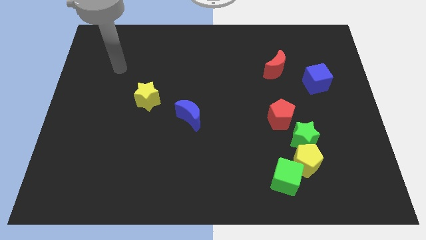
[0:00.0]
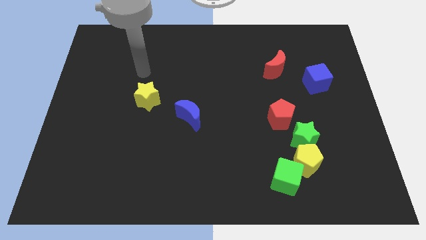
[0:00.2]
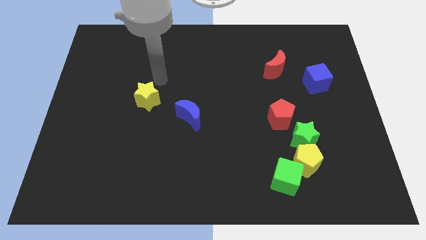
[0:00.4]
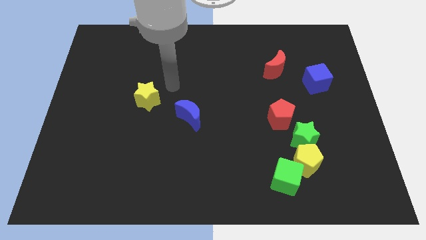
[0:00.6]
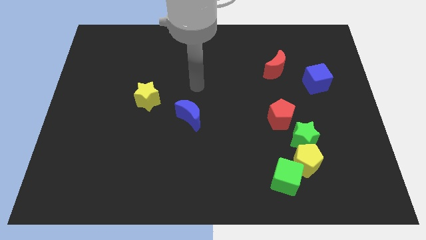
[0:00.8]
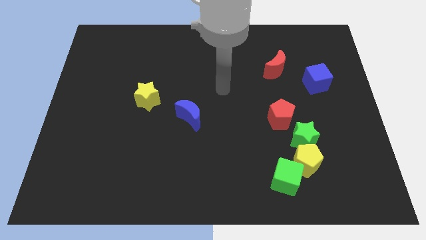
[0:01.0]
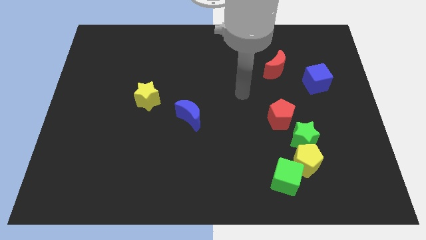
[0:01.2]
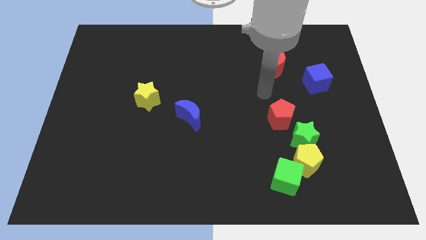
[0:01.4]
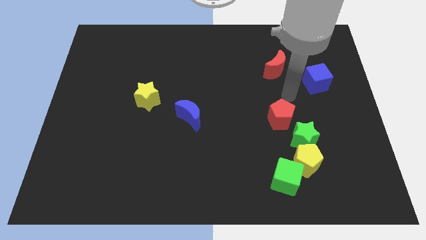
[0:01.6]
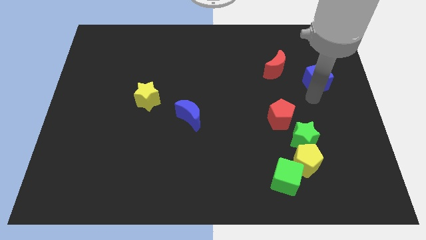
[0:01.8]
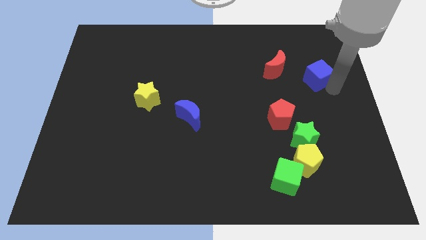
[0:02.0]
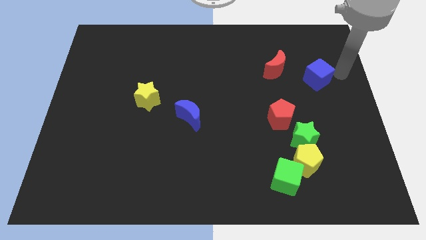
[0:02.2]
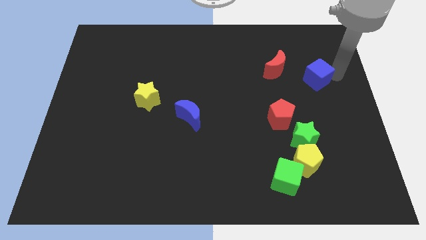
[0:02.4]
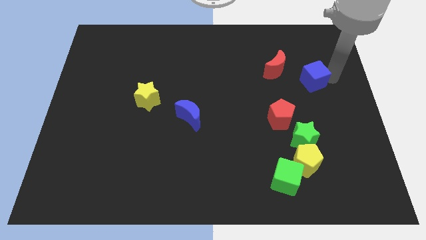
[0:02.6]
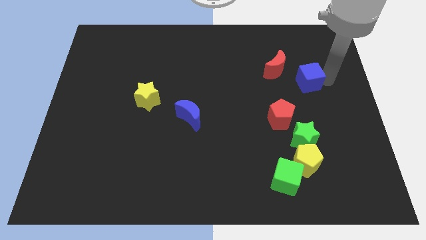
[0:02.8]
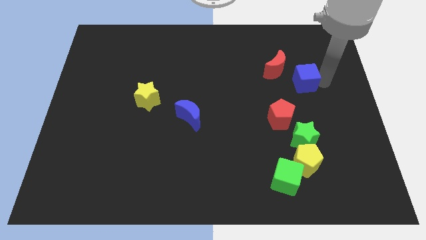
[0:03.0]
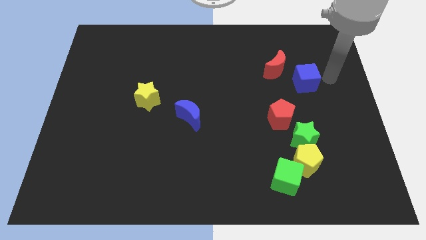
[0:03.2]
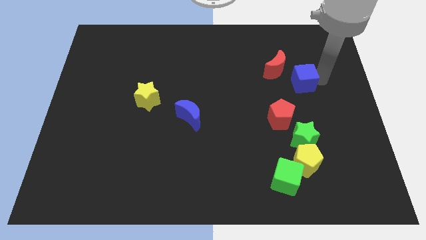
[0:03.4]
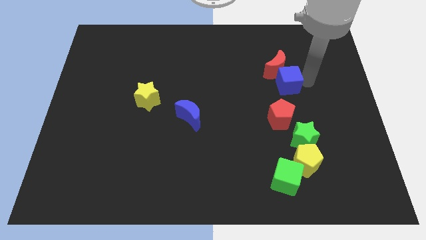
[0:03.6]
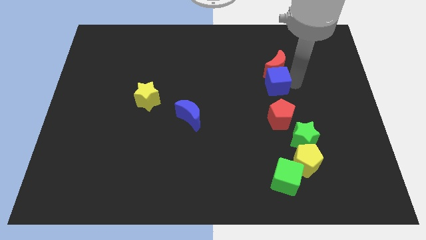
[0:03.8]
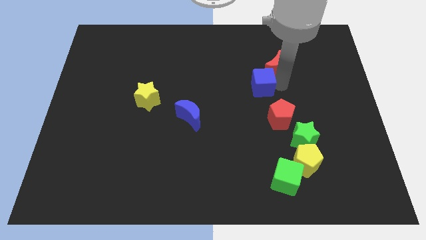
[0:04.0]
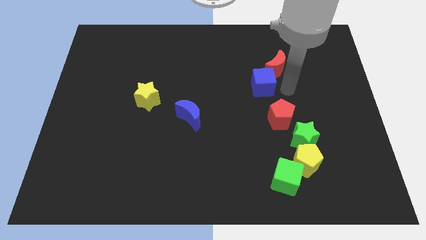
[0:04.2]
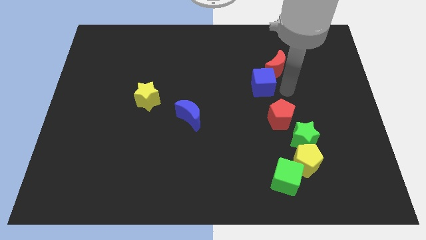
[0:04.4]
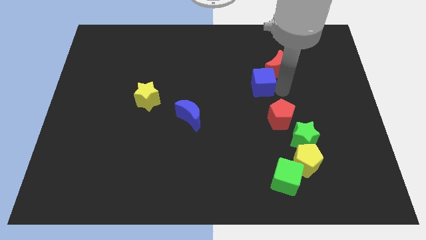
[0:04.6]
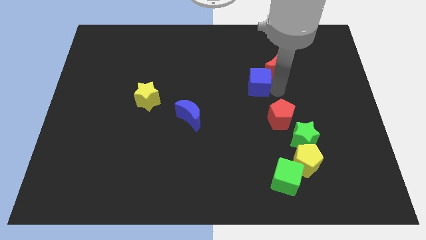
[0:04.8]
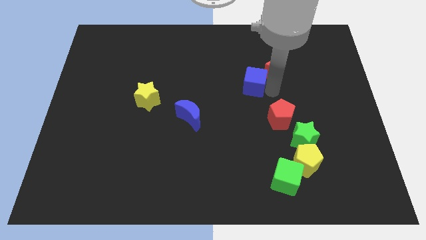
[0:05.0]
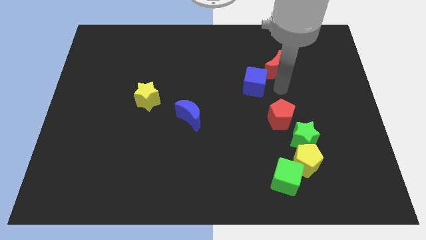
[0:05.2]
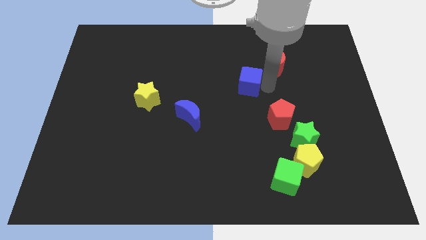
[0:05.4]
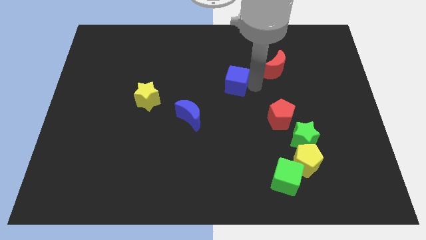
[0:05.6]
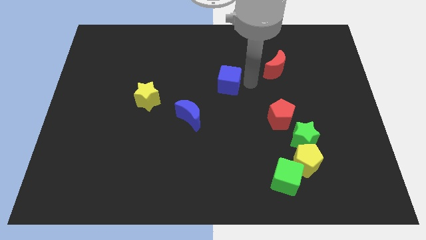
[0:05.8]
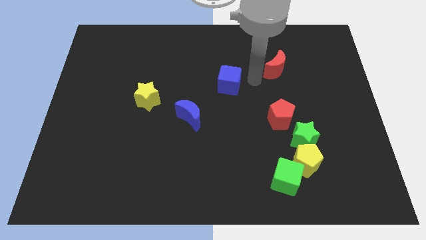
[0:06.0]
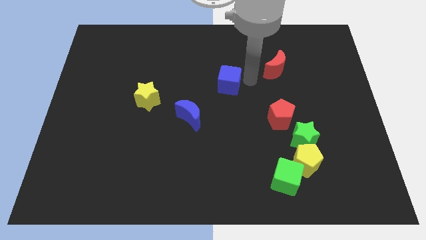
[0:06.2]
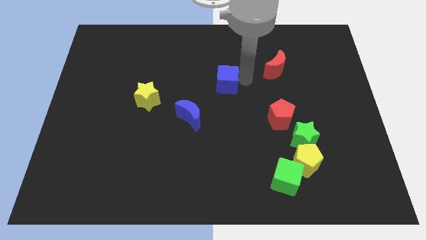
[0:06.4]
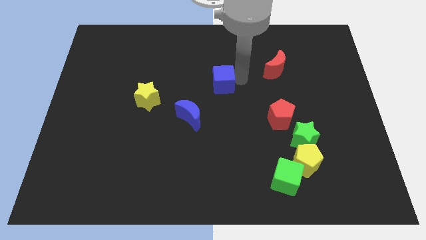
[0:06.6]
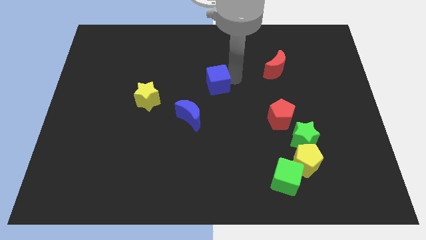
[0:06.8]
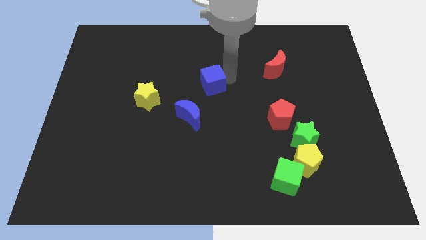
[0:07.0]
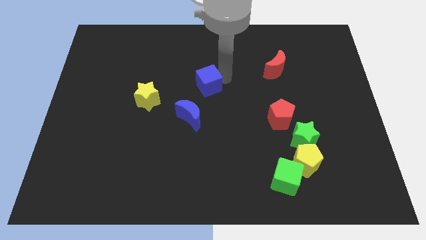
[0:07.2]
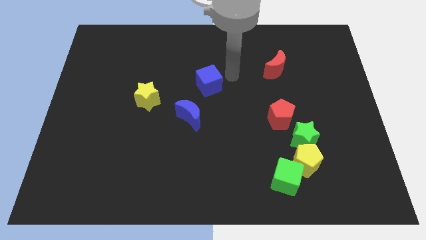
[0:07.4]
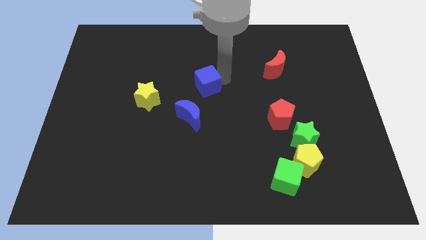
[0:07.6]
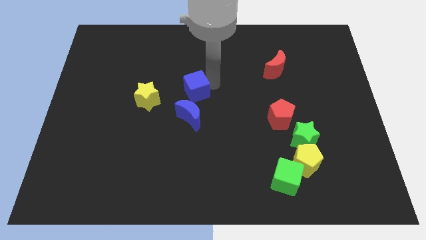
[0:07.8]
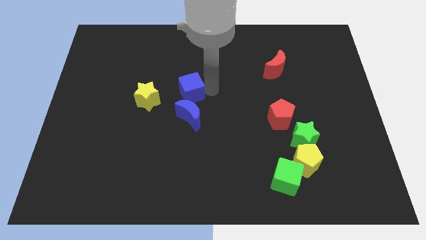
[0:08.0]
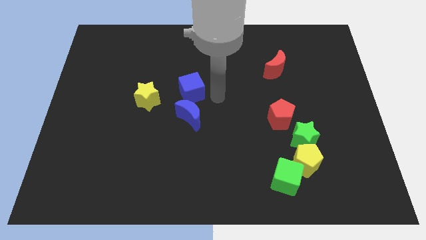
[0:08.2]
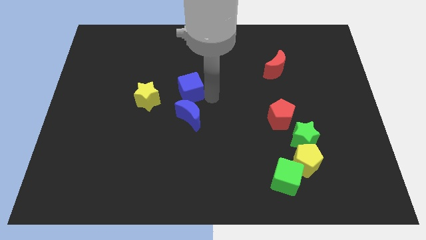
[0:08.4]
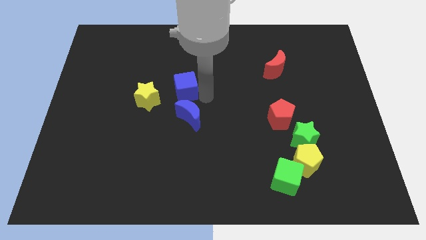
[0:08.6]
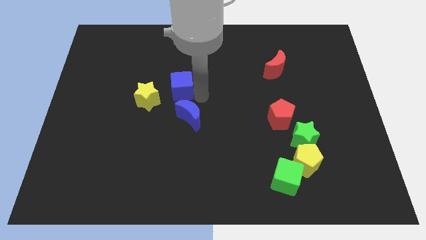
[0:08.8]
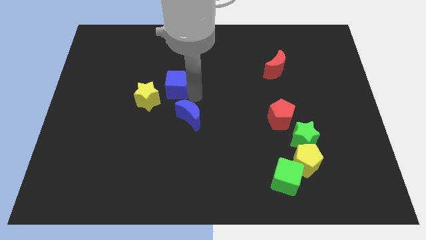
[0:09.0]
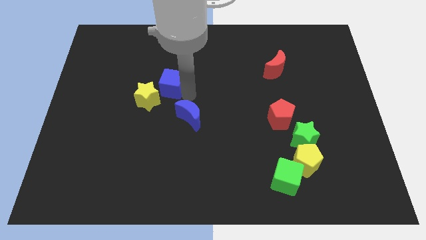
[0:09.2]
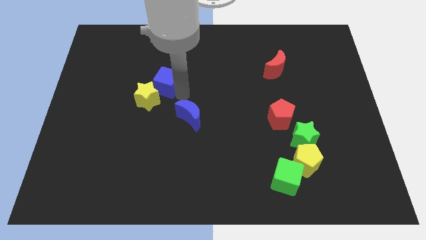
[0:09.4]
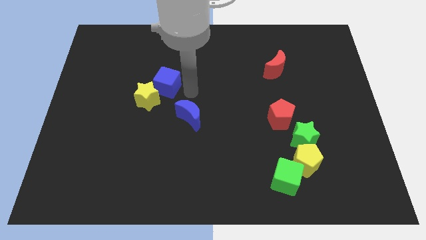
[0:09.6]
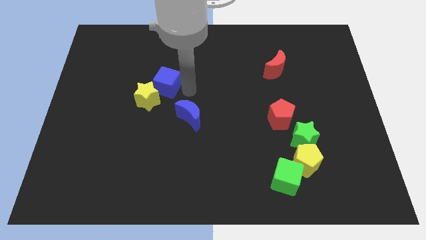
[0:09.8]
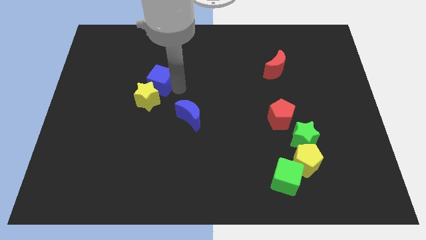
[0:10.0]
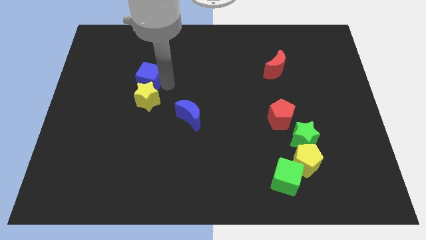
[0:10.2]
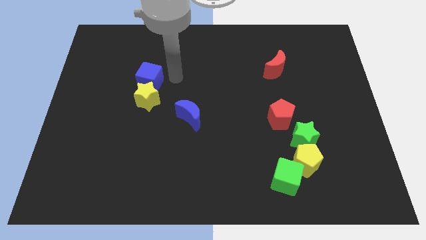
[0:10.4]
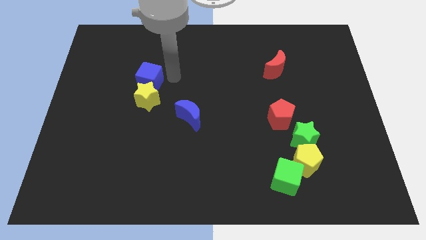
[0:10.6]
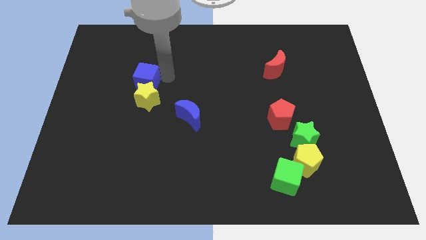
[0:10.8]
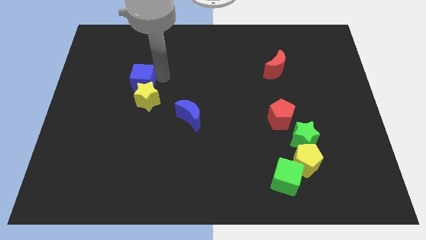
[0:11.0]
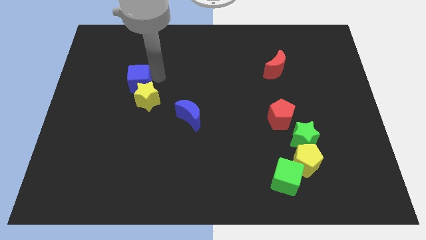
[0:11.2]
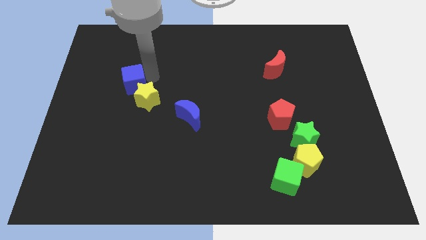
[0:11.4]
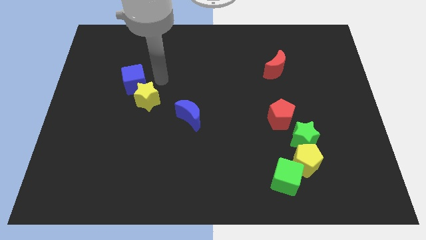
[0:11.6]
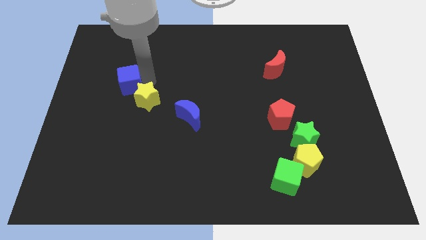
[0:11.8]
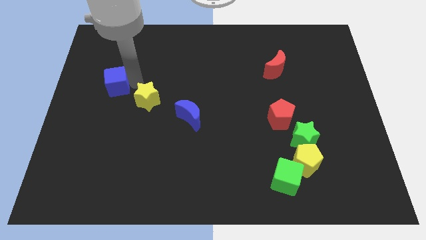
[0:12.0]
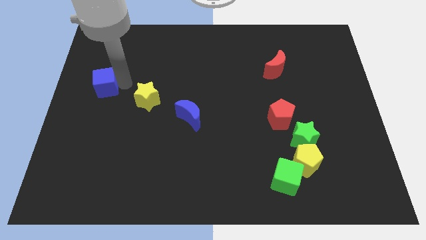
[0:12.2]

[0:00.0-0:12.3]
move the blue cube to the left side

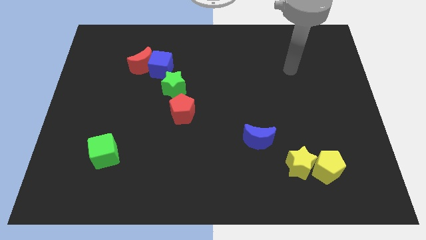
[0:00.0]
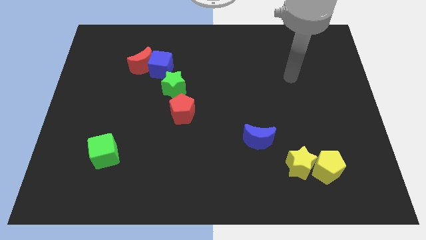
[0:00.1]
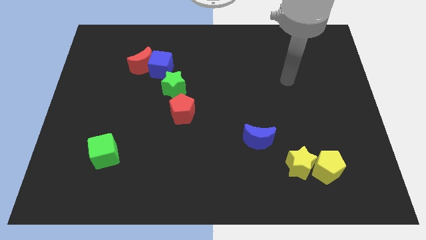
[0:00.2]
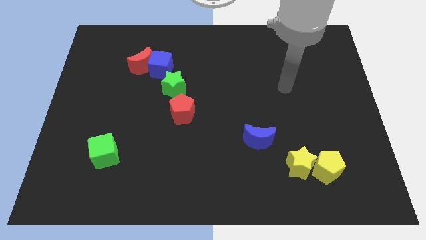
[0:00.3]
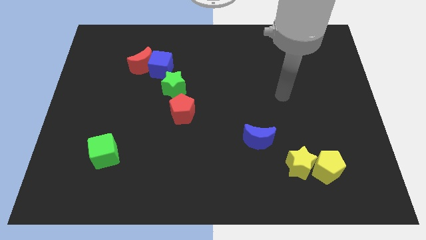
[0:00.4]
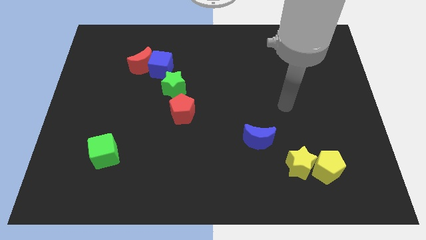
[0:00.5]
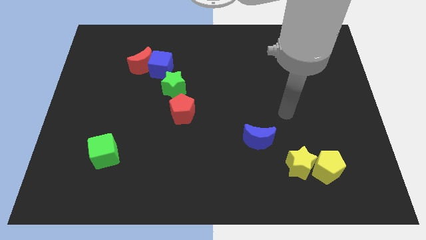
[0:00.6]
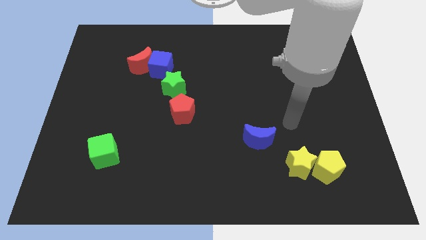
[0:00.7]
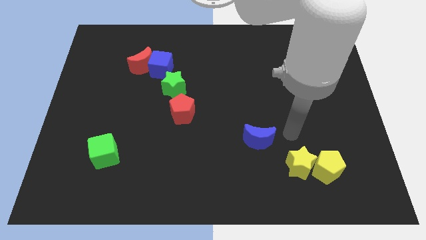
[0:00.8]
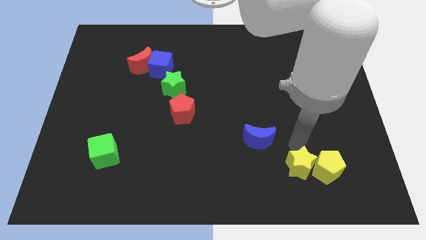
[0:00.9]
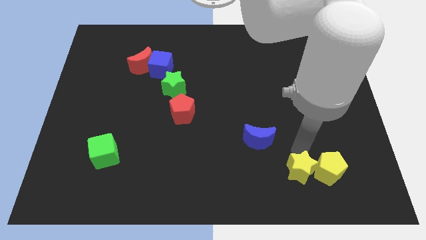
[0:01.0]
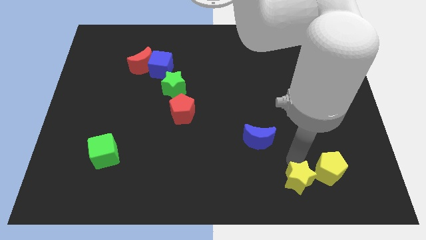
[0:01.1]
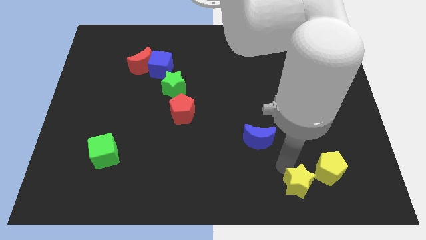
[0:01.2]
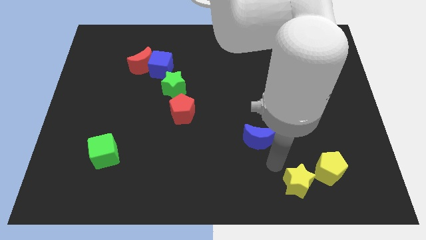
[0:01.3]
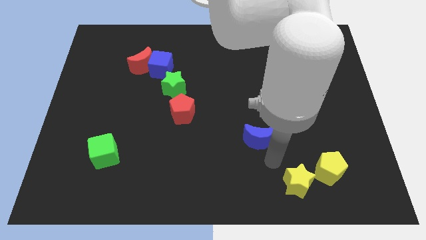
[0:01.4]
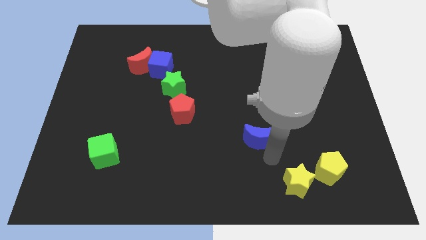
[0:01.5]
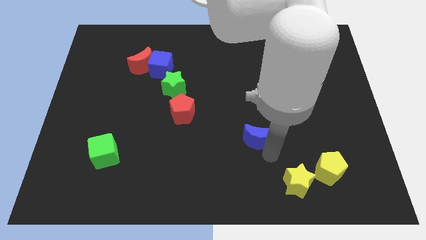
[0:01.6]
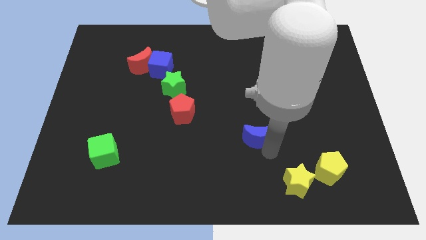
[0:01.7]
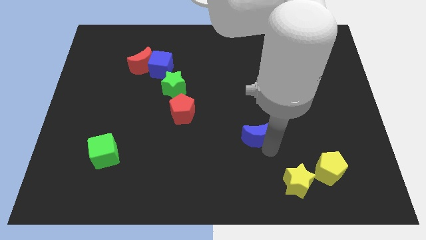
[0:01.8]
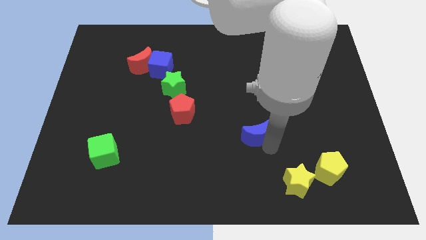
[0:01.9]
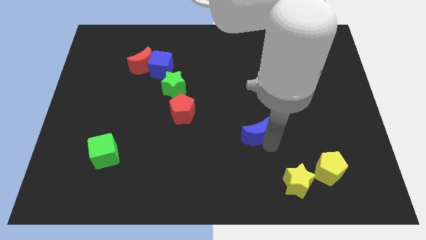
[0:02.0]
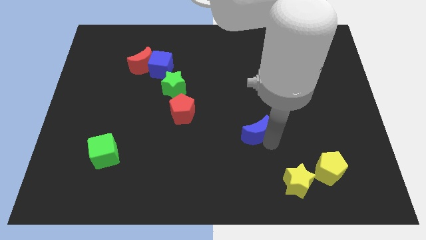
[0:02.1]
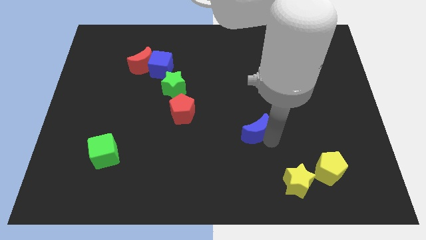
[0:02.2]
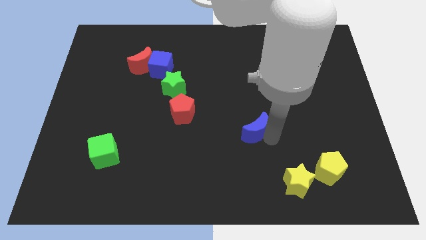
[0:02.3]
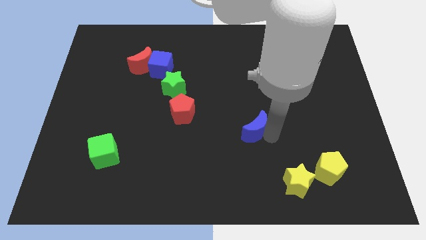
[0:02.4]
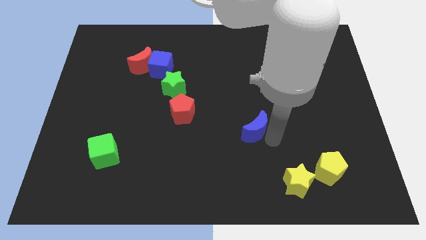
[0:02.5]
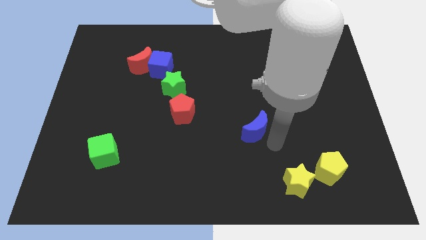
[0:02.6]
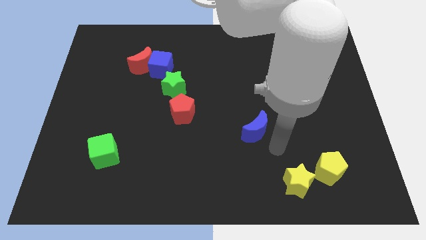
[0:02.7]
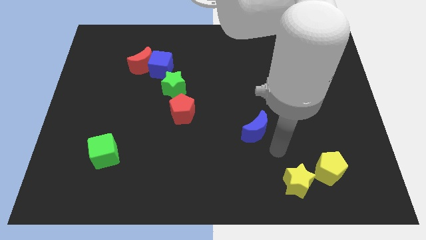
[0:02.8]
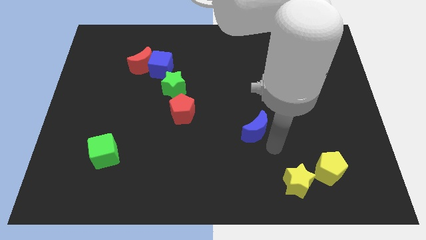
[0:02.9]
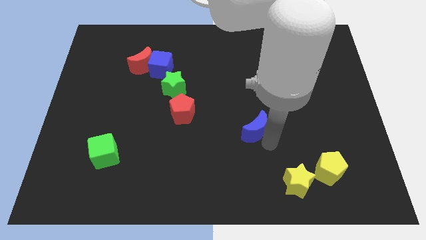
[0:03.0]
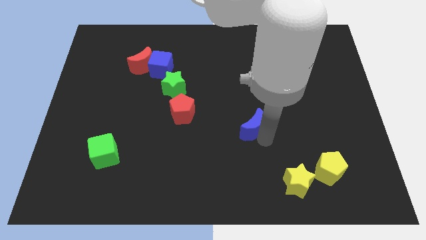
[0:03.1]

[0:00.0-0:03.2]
move the blue moon to the center of the board
